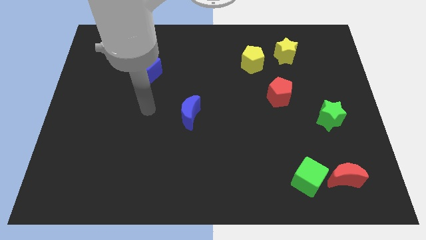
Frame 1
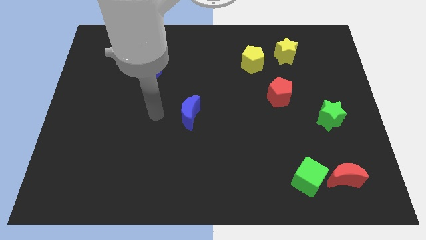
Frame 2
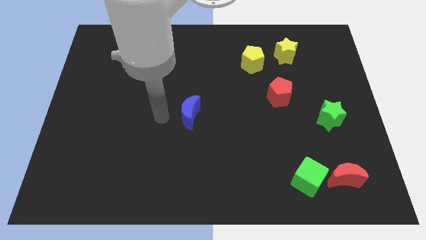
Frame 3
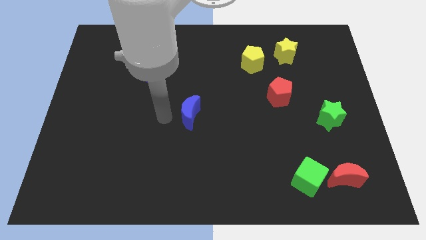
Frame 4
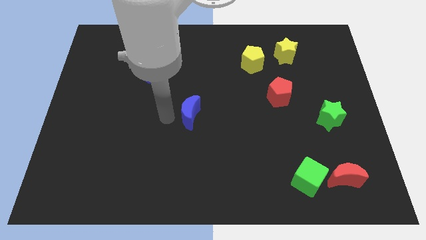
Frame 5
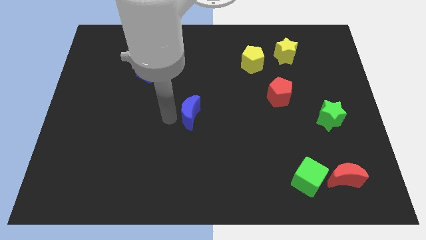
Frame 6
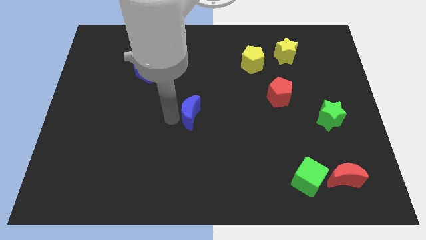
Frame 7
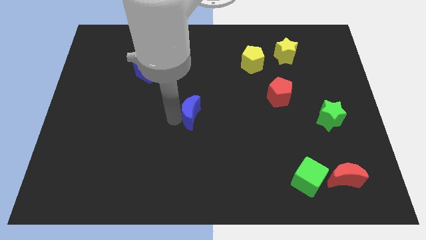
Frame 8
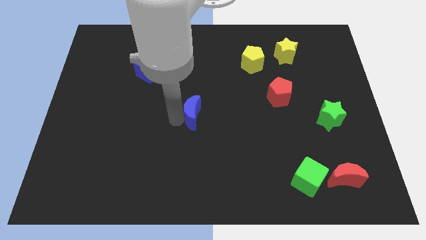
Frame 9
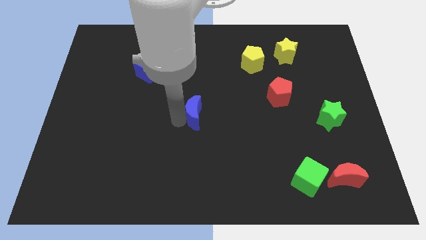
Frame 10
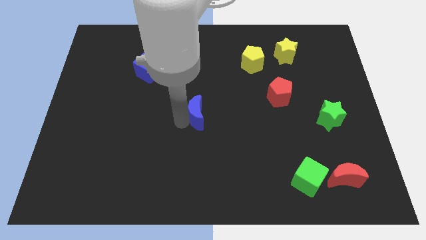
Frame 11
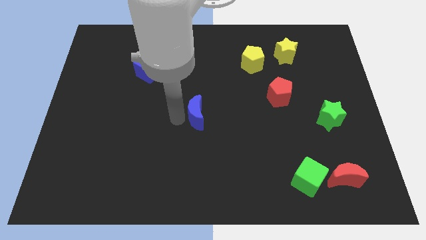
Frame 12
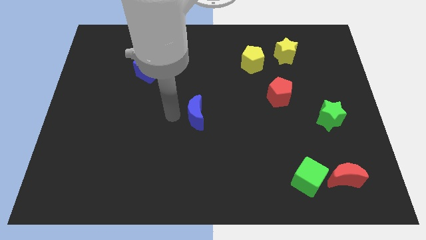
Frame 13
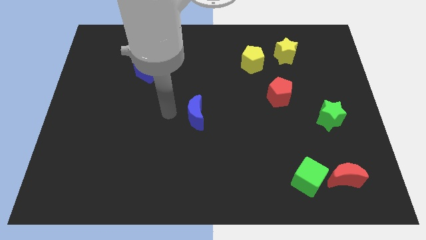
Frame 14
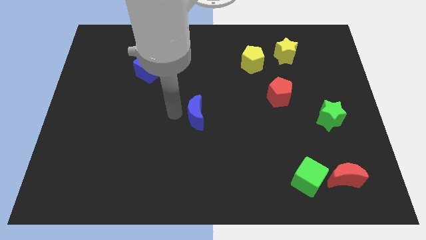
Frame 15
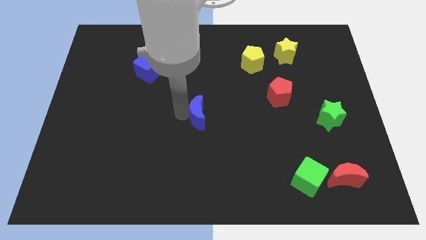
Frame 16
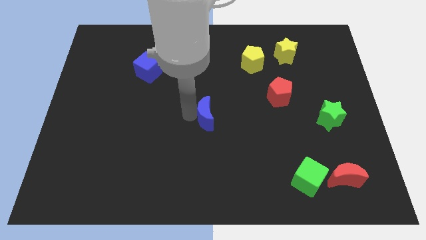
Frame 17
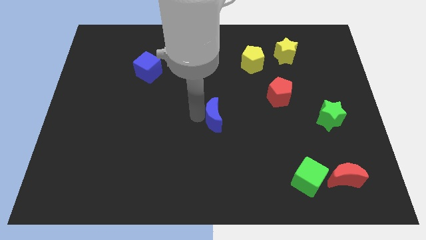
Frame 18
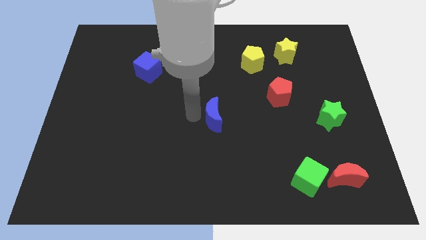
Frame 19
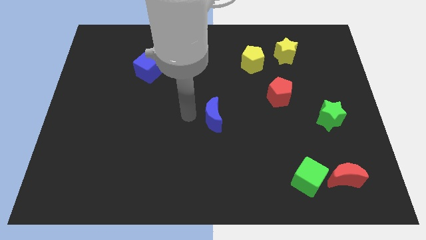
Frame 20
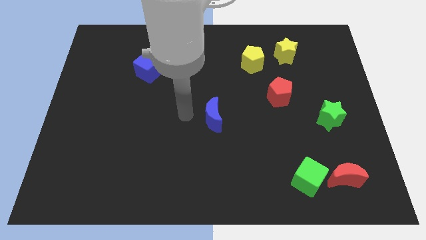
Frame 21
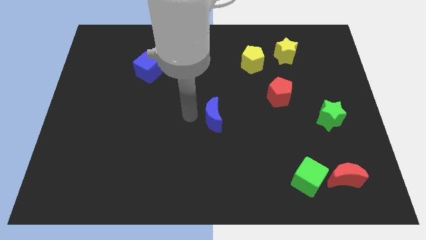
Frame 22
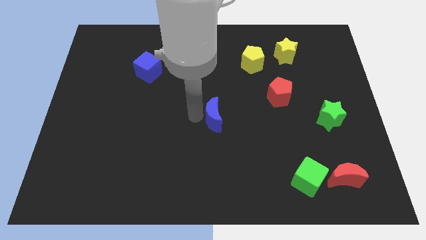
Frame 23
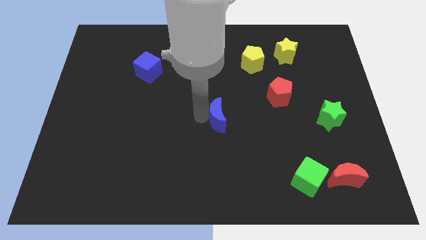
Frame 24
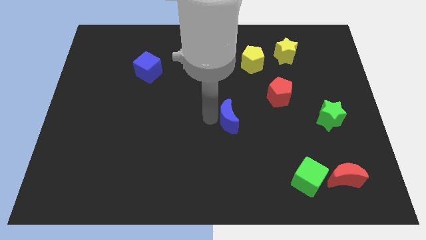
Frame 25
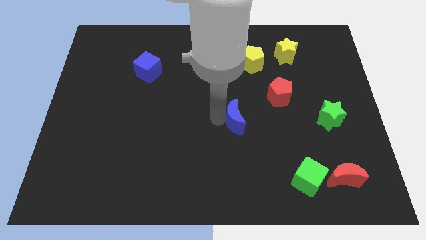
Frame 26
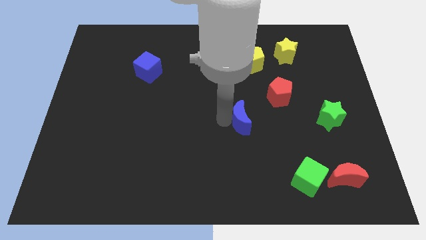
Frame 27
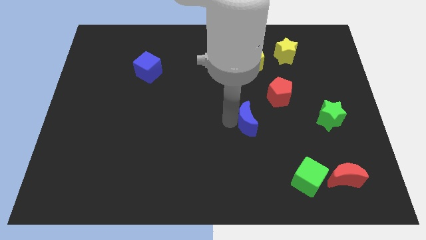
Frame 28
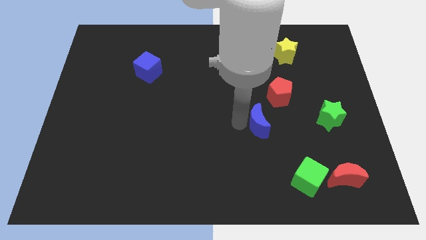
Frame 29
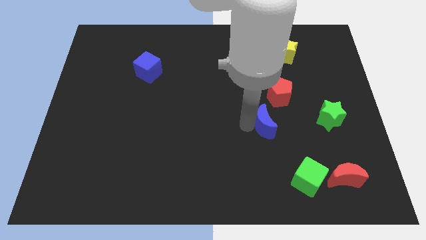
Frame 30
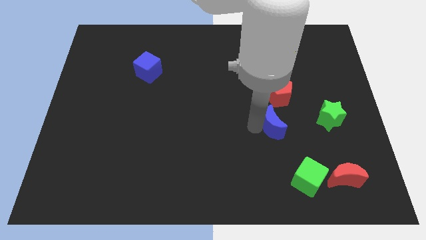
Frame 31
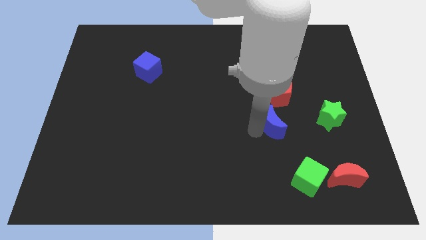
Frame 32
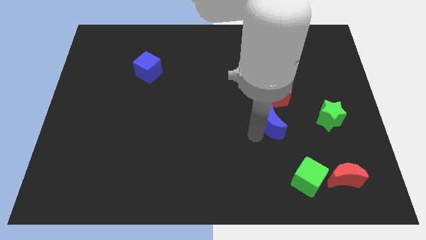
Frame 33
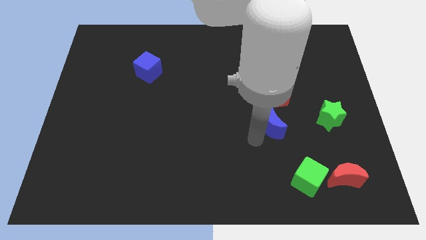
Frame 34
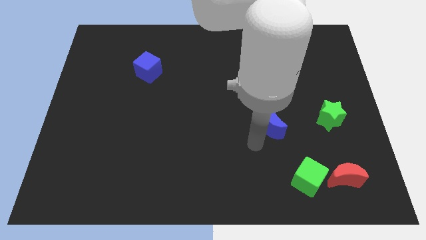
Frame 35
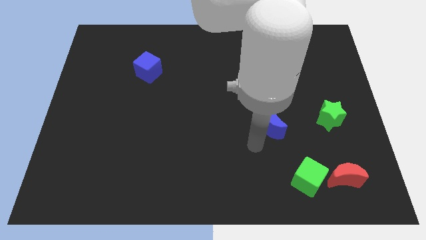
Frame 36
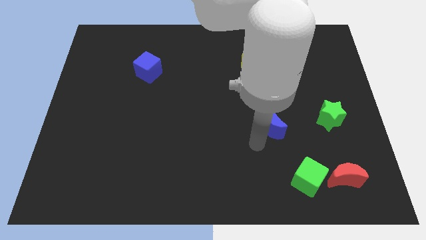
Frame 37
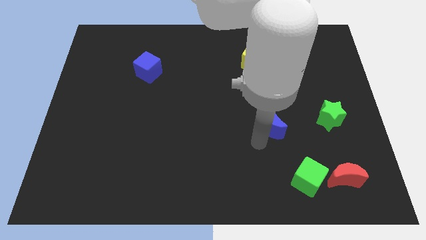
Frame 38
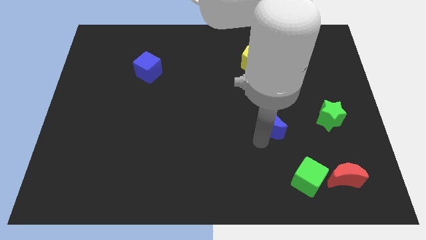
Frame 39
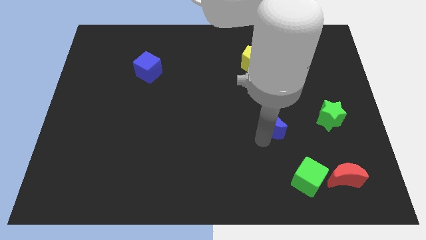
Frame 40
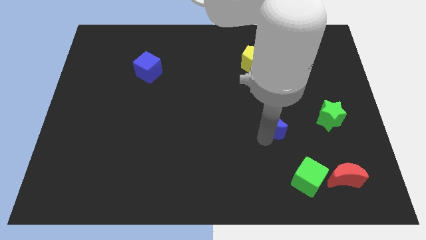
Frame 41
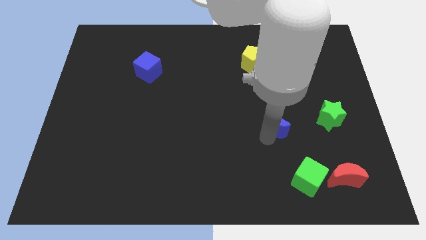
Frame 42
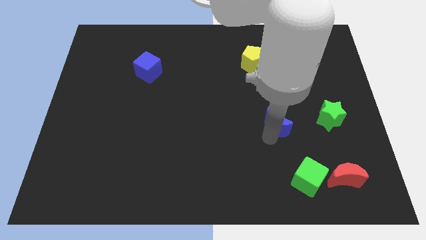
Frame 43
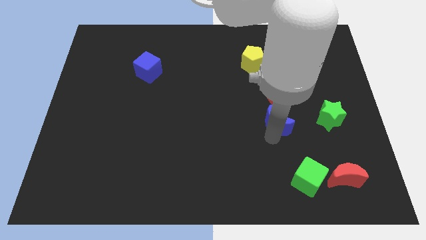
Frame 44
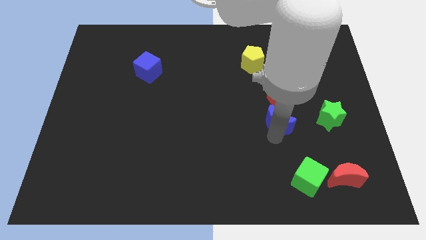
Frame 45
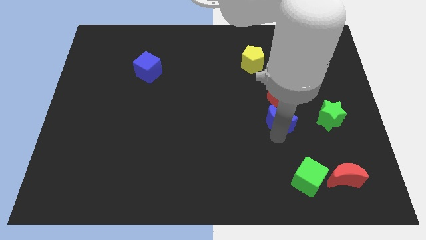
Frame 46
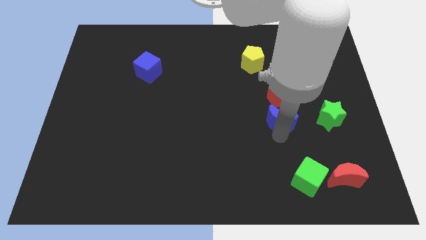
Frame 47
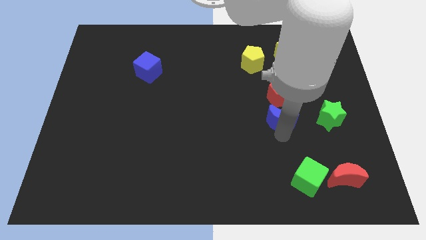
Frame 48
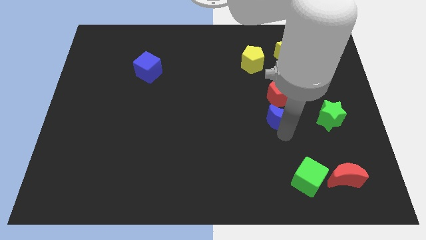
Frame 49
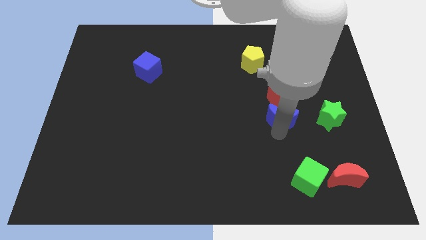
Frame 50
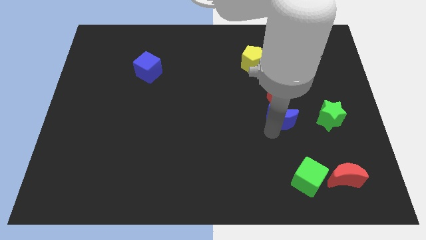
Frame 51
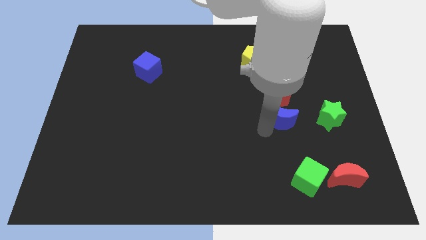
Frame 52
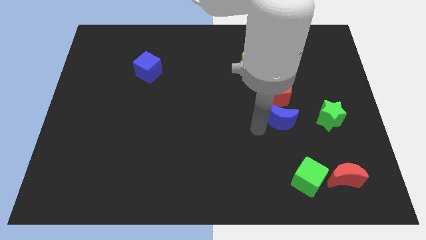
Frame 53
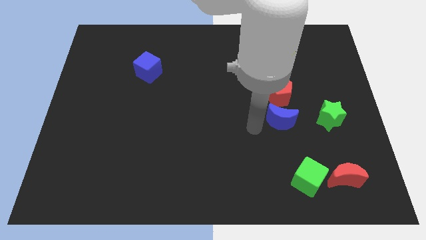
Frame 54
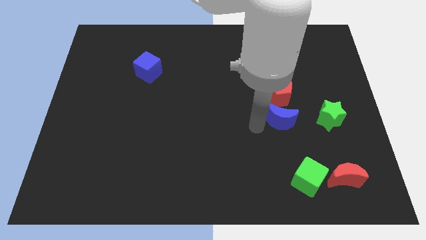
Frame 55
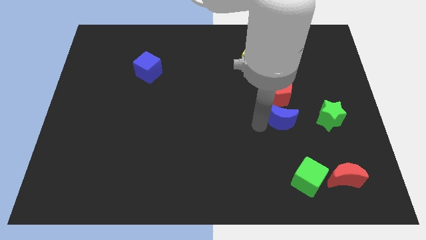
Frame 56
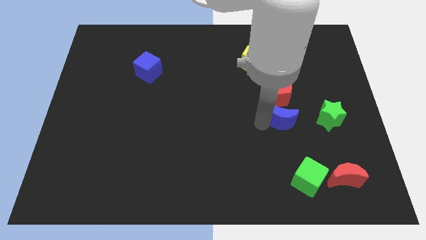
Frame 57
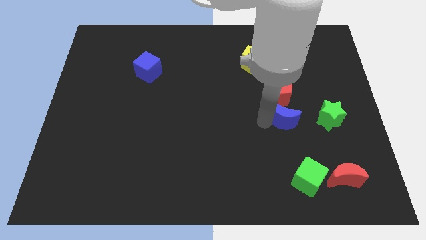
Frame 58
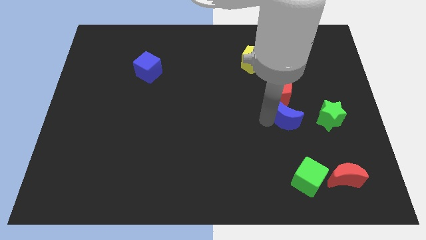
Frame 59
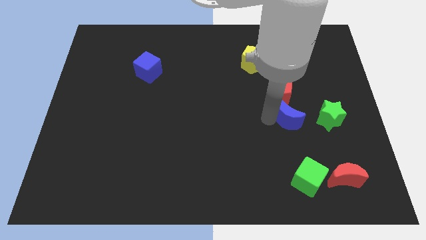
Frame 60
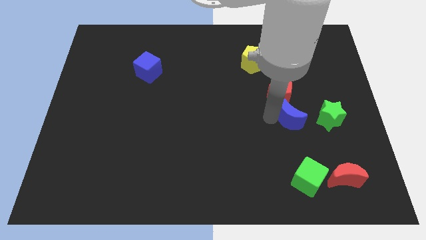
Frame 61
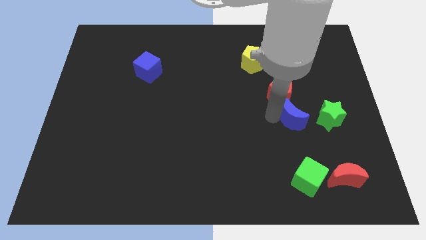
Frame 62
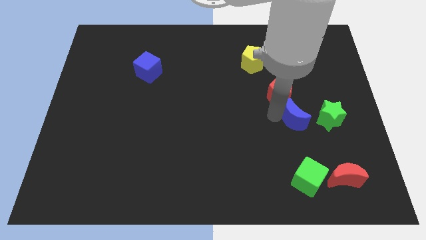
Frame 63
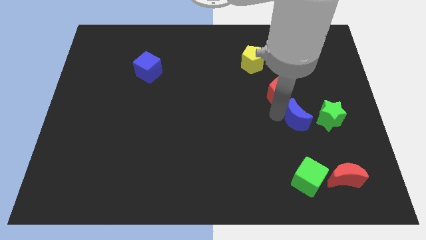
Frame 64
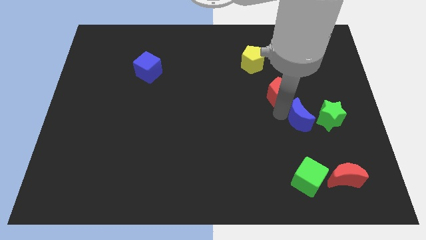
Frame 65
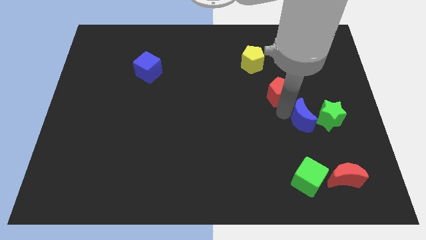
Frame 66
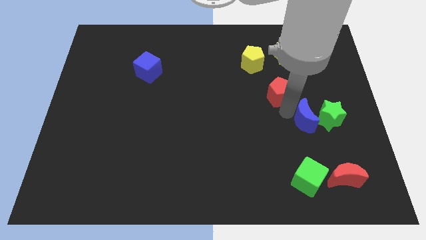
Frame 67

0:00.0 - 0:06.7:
slide the blue moon to the green star
